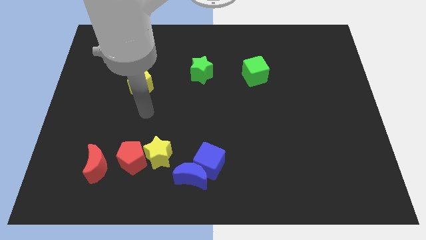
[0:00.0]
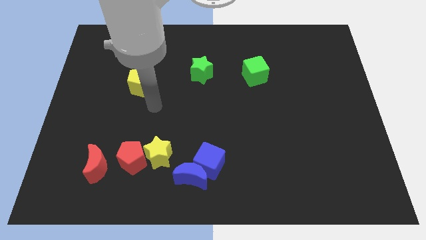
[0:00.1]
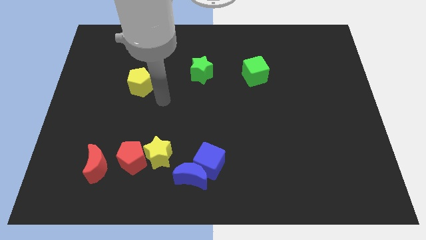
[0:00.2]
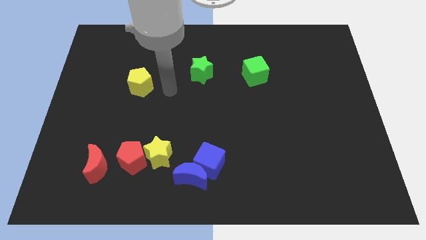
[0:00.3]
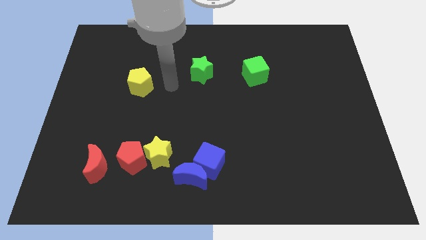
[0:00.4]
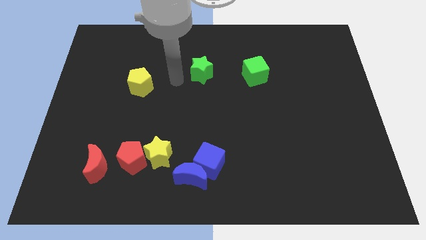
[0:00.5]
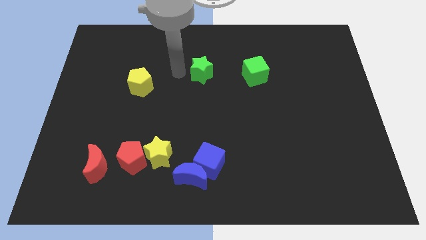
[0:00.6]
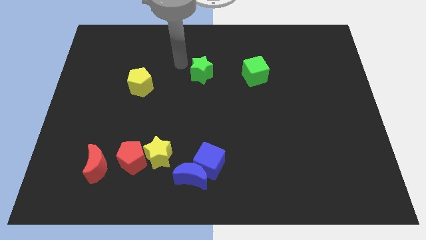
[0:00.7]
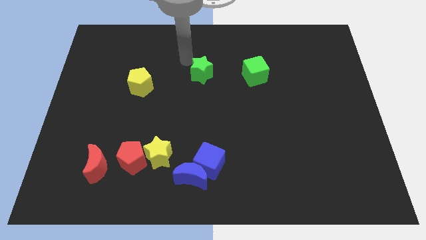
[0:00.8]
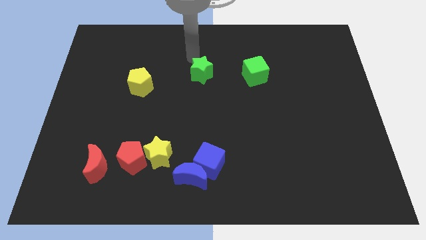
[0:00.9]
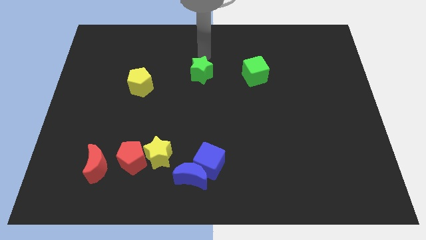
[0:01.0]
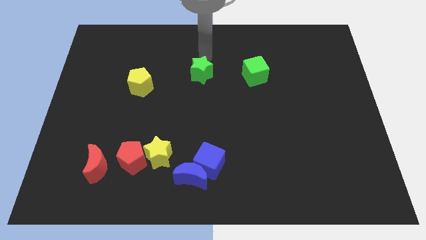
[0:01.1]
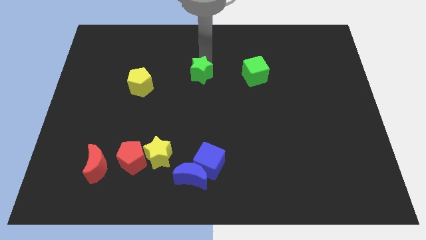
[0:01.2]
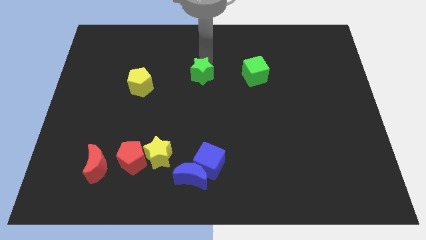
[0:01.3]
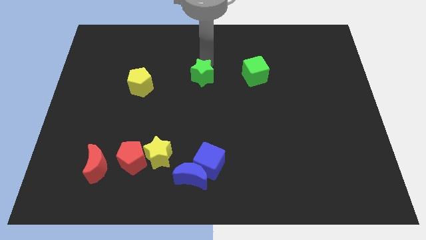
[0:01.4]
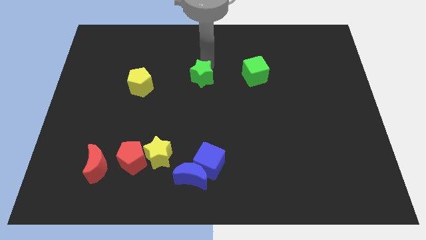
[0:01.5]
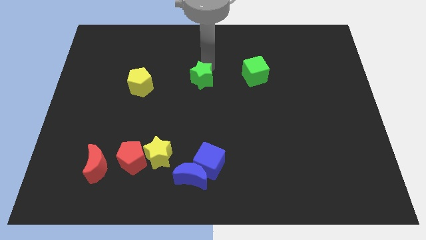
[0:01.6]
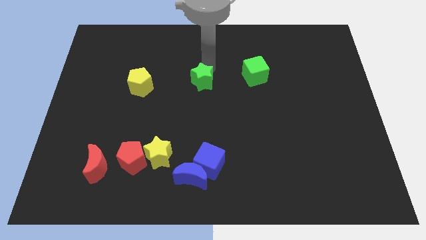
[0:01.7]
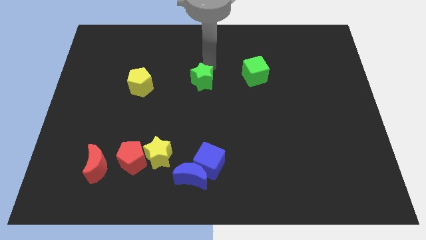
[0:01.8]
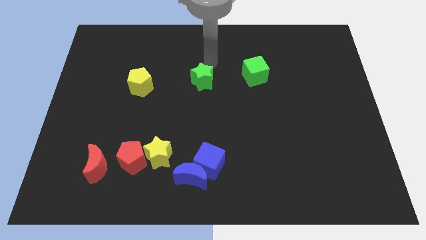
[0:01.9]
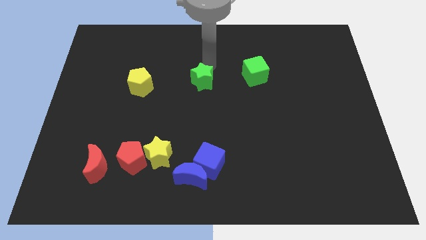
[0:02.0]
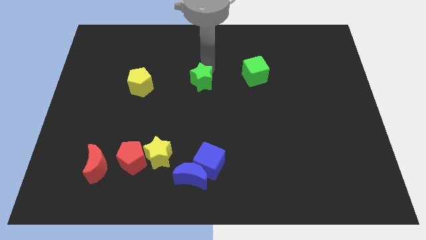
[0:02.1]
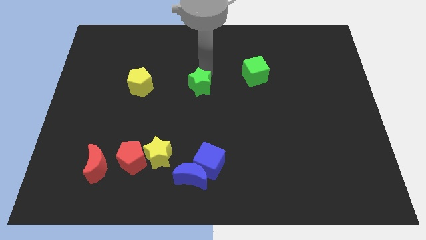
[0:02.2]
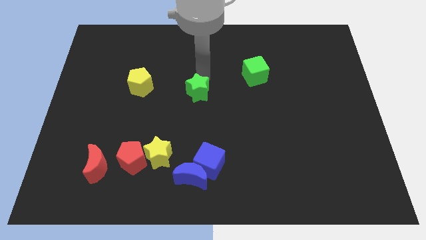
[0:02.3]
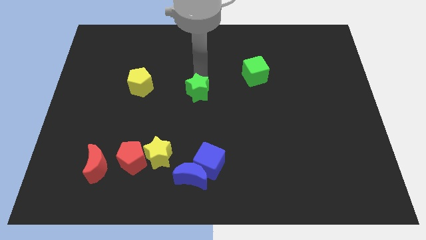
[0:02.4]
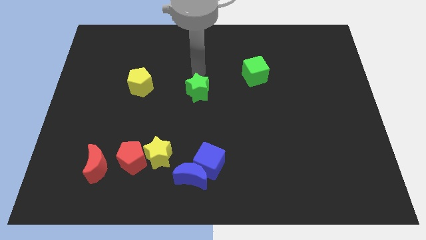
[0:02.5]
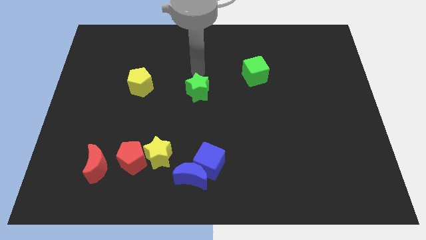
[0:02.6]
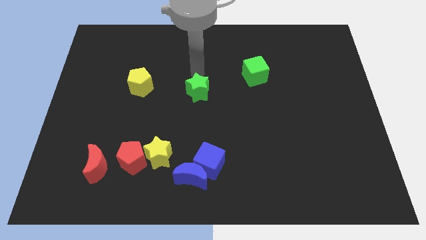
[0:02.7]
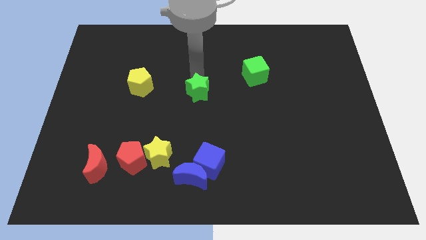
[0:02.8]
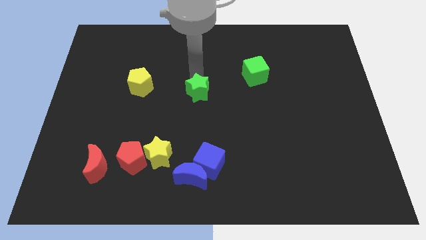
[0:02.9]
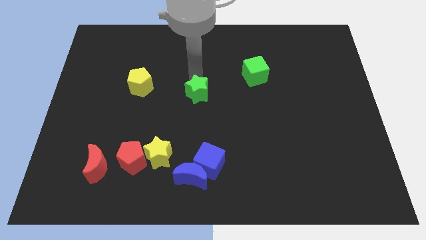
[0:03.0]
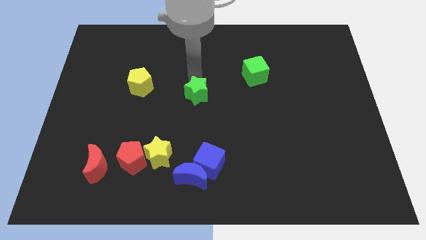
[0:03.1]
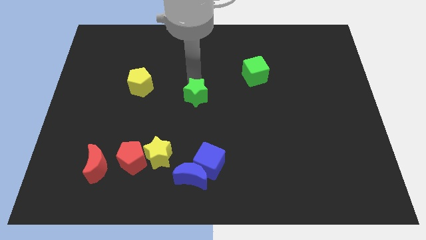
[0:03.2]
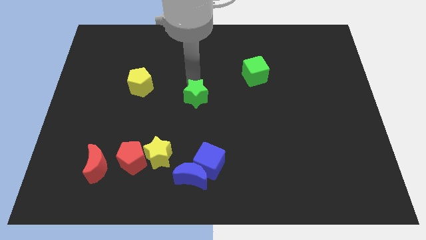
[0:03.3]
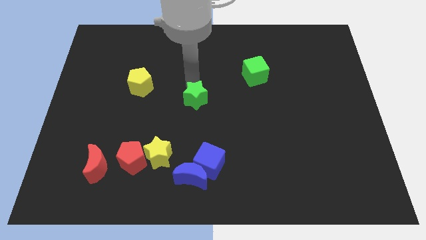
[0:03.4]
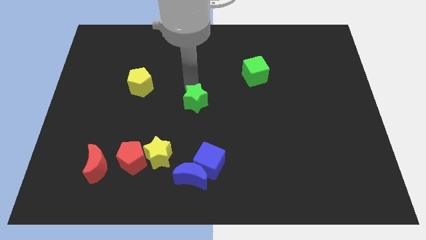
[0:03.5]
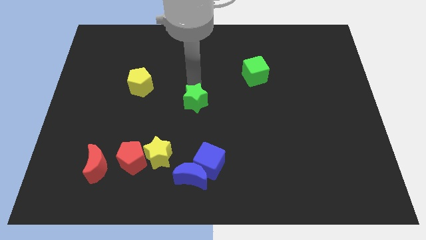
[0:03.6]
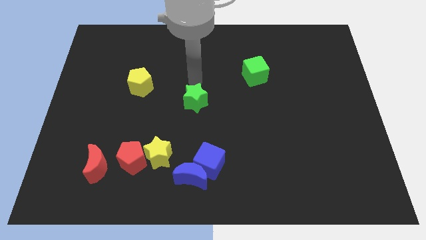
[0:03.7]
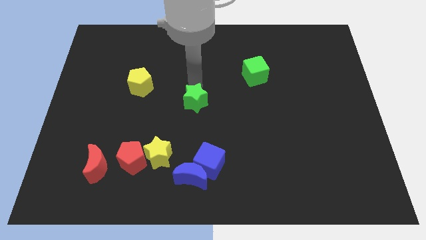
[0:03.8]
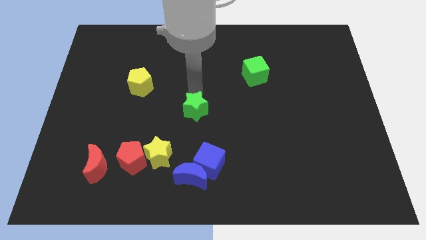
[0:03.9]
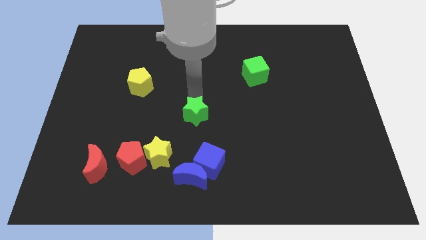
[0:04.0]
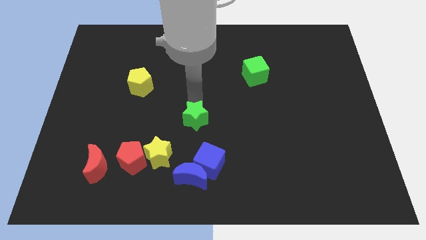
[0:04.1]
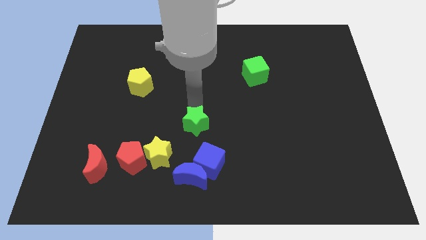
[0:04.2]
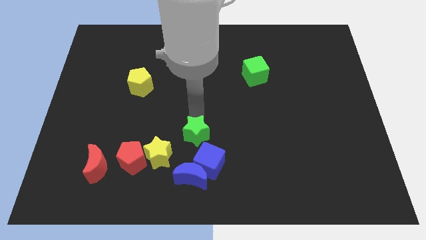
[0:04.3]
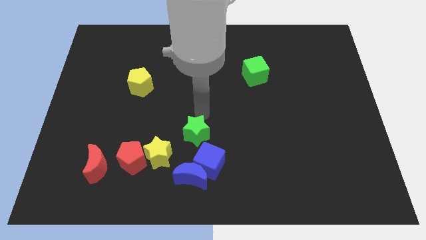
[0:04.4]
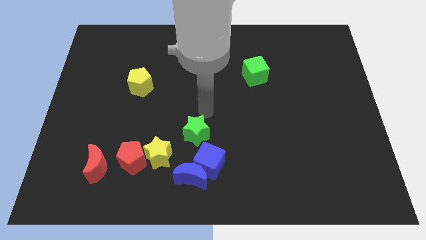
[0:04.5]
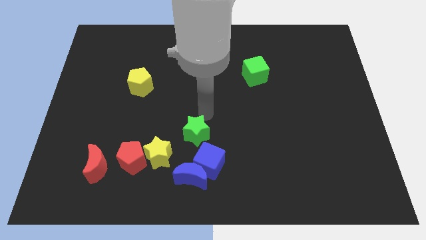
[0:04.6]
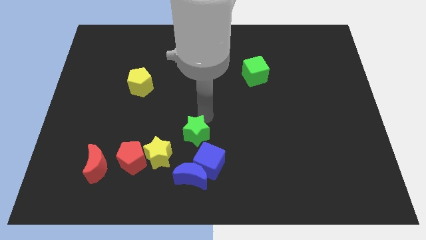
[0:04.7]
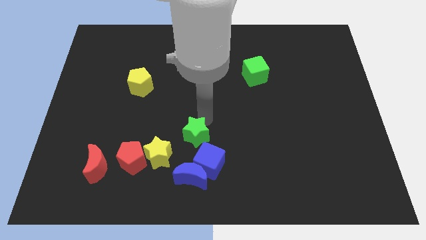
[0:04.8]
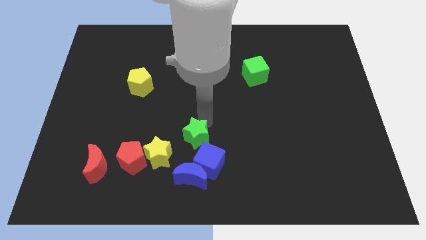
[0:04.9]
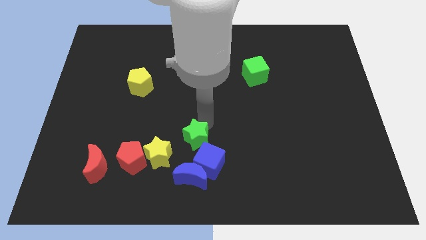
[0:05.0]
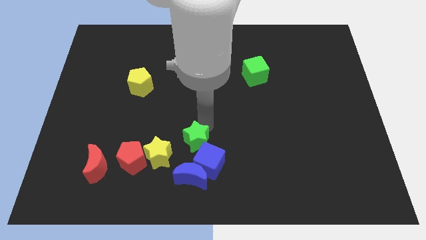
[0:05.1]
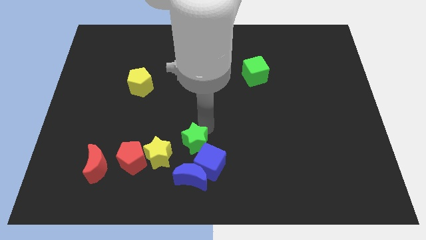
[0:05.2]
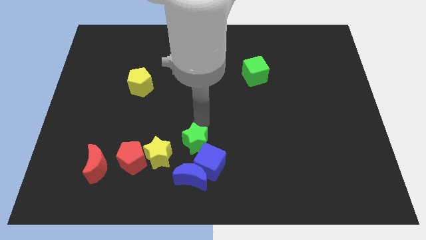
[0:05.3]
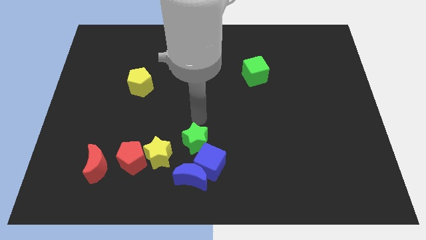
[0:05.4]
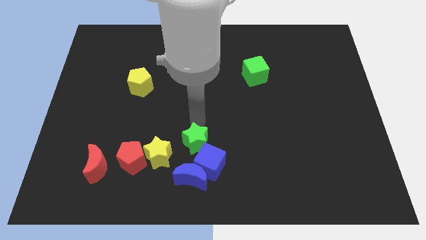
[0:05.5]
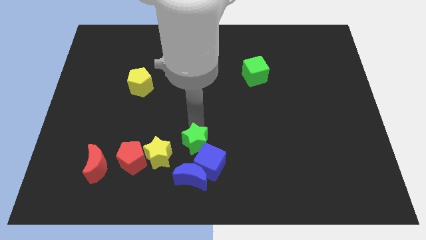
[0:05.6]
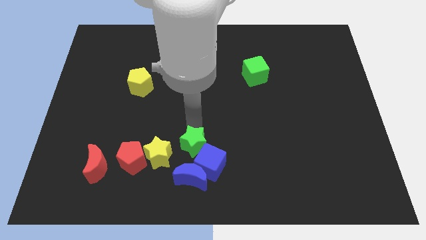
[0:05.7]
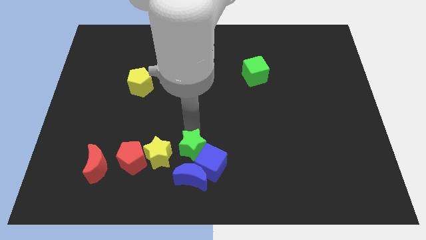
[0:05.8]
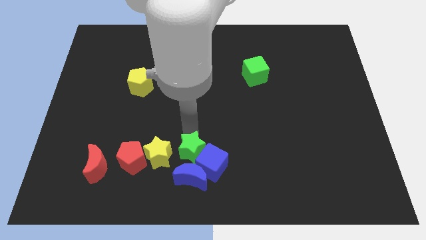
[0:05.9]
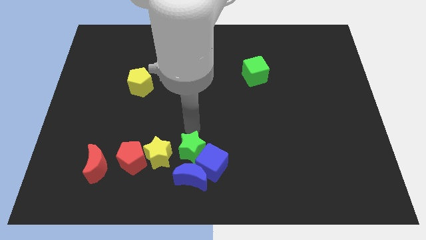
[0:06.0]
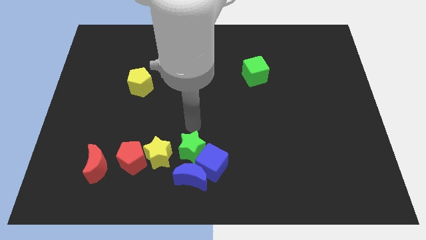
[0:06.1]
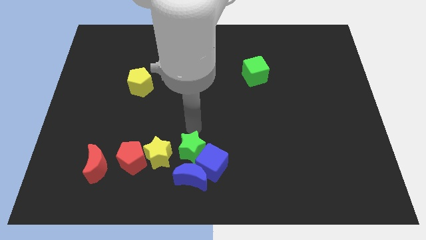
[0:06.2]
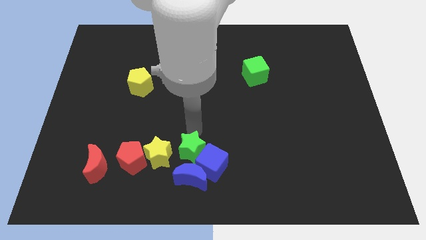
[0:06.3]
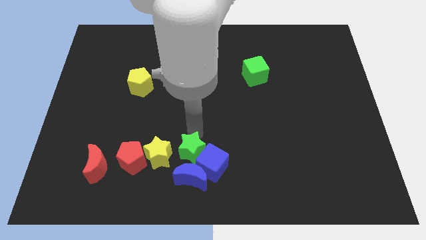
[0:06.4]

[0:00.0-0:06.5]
put the green star towards the blue moon
